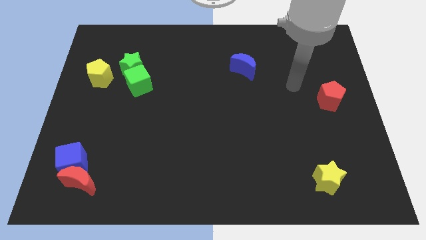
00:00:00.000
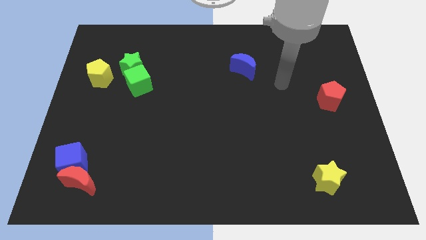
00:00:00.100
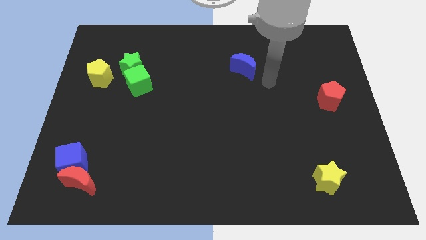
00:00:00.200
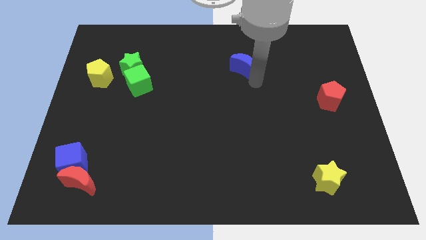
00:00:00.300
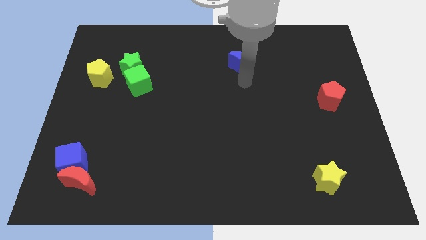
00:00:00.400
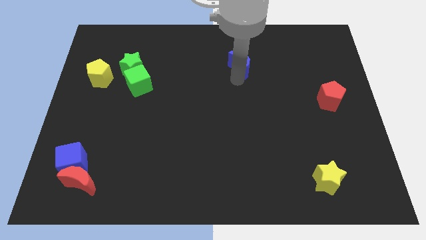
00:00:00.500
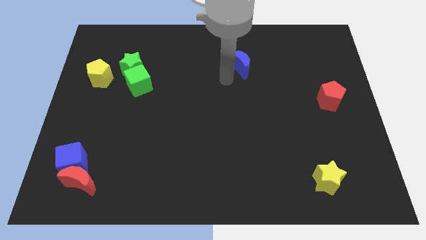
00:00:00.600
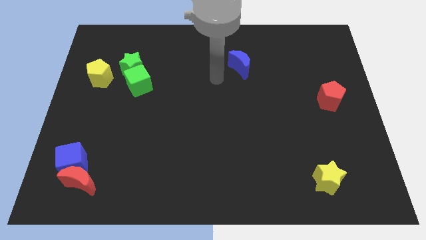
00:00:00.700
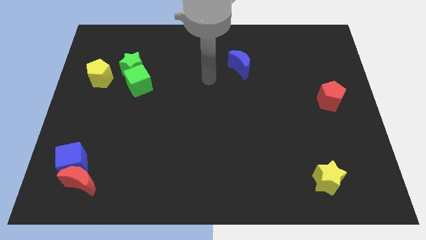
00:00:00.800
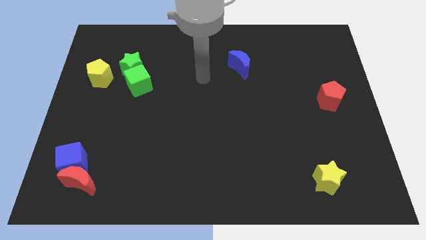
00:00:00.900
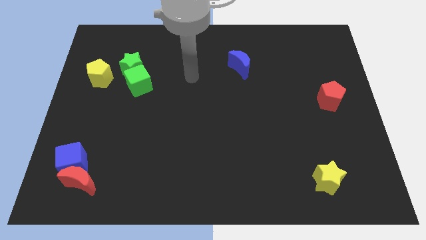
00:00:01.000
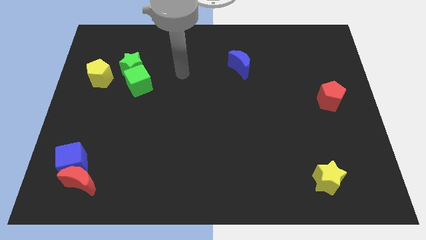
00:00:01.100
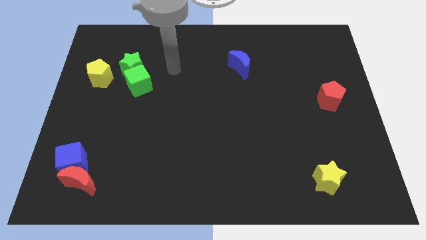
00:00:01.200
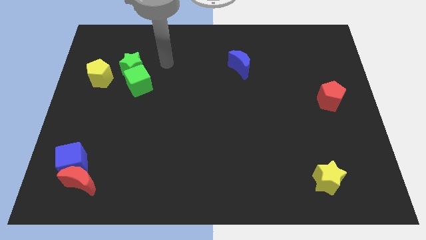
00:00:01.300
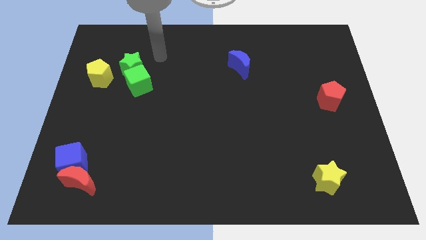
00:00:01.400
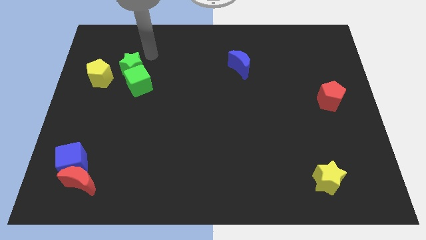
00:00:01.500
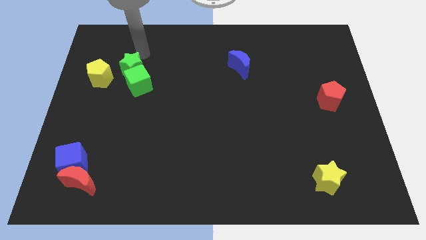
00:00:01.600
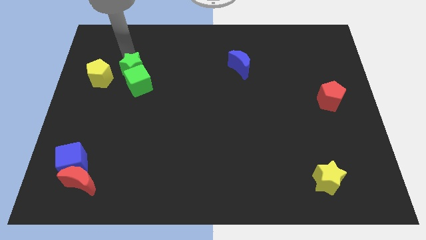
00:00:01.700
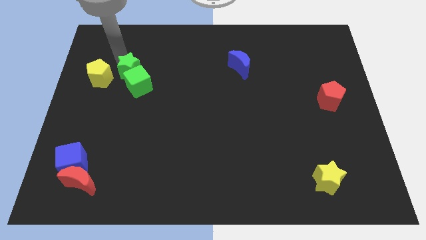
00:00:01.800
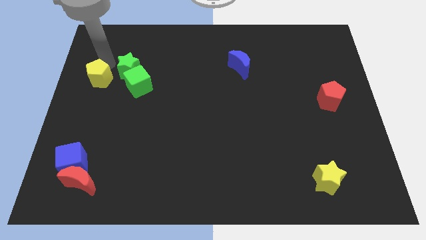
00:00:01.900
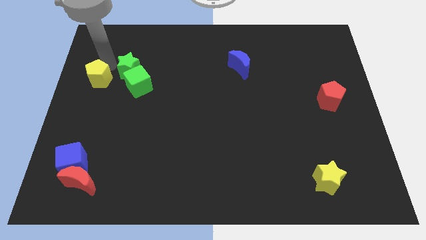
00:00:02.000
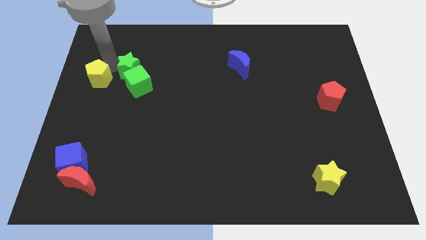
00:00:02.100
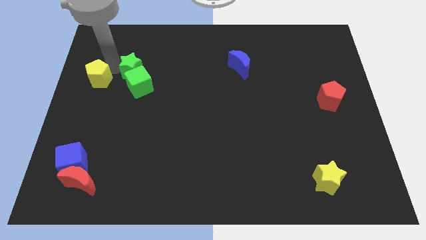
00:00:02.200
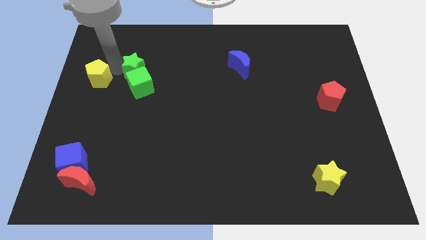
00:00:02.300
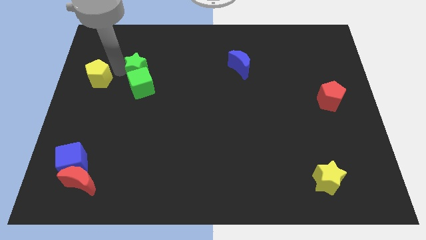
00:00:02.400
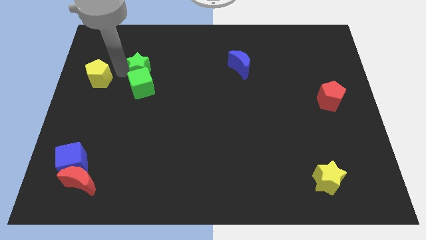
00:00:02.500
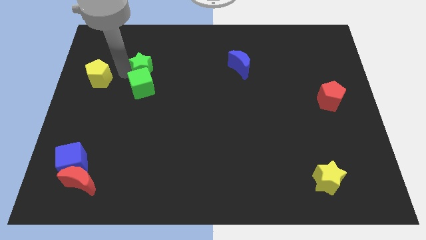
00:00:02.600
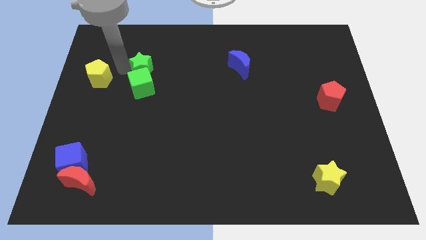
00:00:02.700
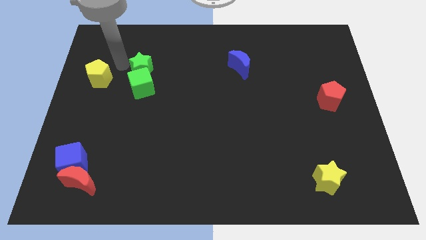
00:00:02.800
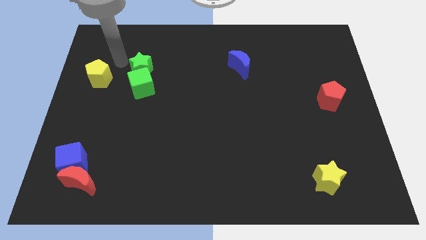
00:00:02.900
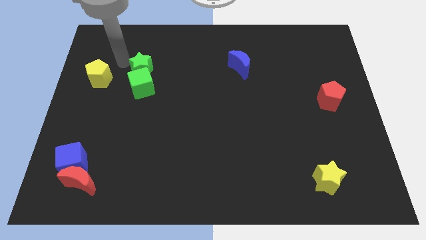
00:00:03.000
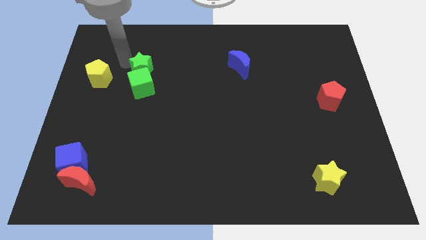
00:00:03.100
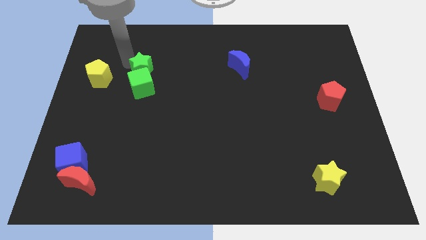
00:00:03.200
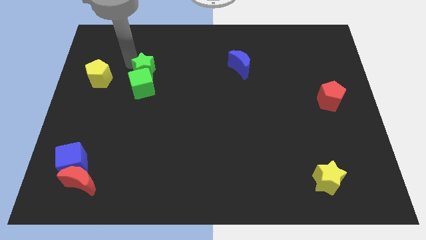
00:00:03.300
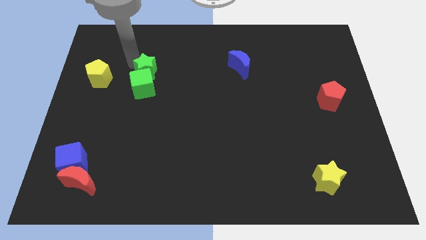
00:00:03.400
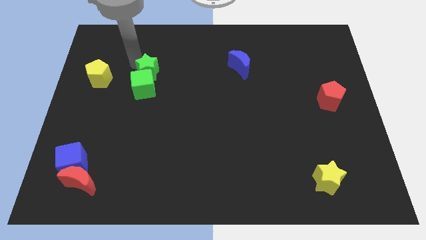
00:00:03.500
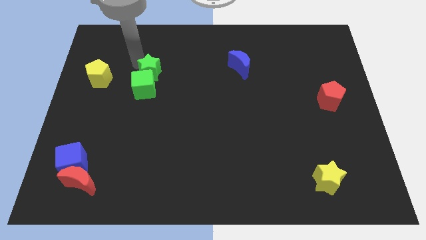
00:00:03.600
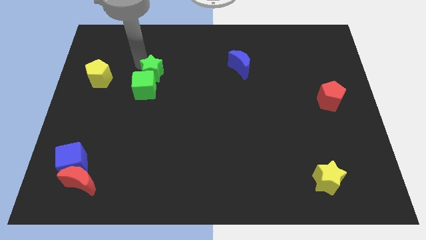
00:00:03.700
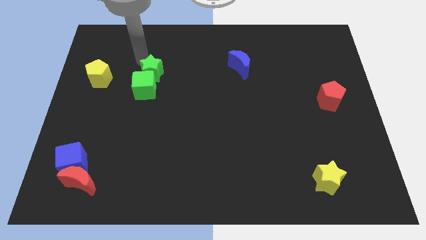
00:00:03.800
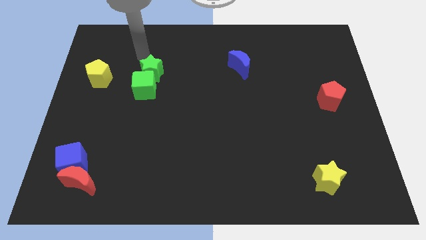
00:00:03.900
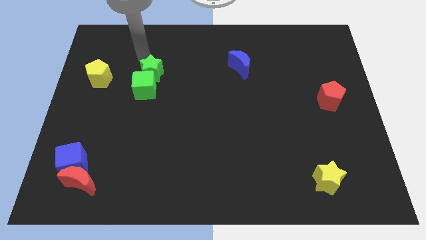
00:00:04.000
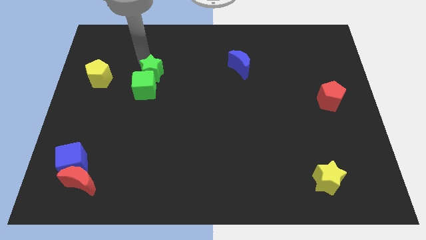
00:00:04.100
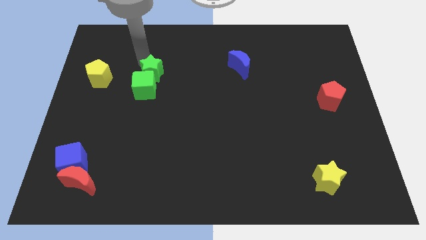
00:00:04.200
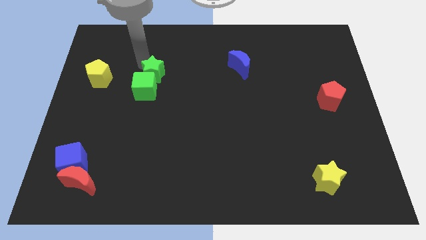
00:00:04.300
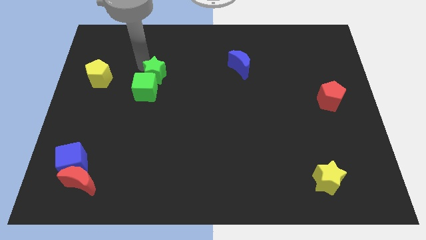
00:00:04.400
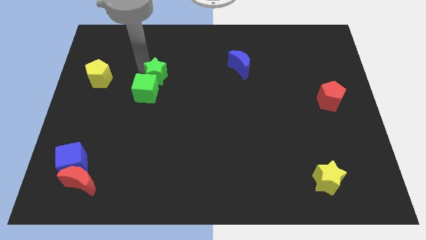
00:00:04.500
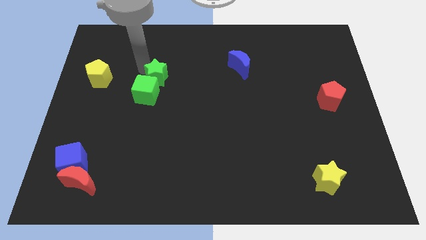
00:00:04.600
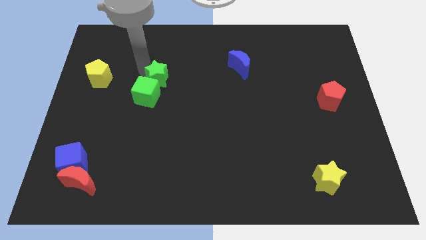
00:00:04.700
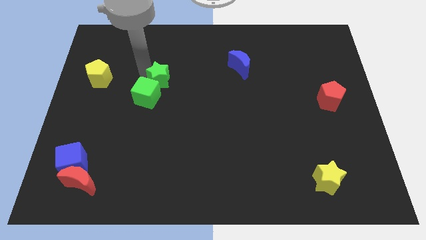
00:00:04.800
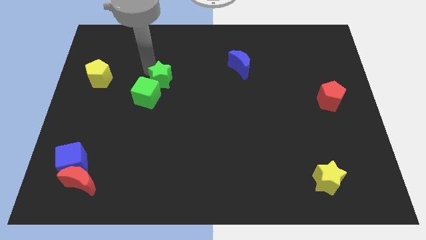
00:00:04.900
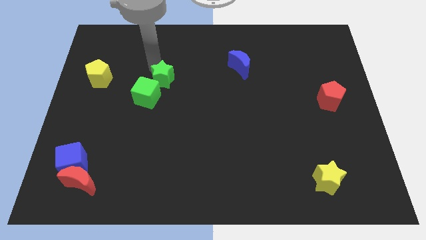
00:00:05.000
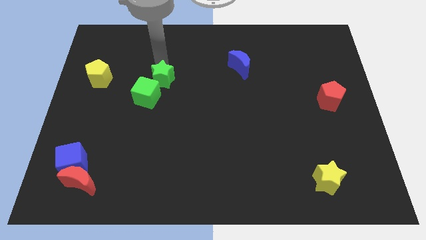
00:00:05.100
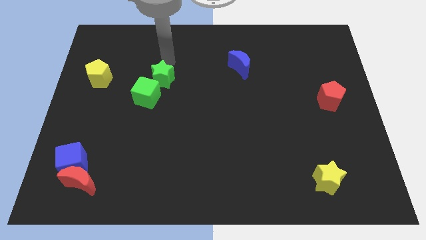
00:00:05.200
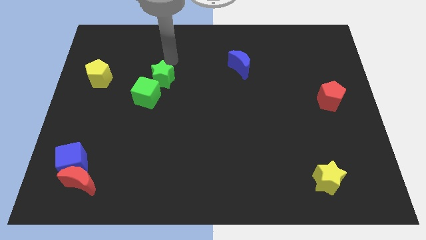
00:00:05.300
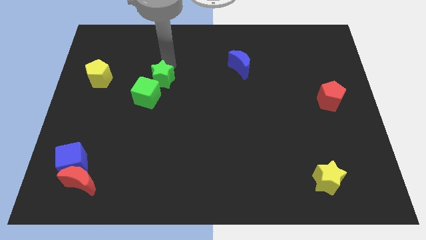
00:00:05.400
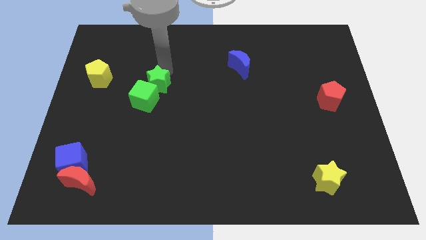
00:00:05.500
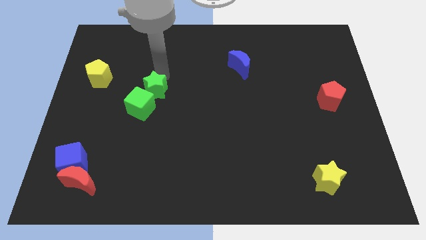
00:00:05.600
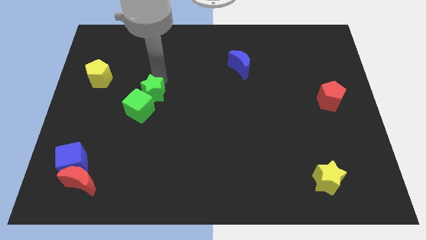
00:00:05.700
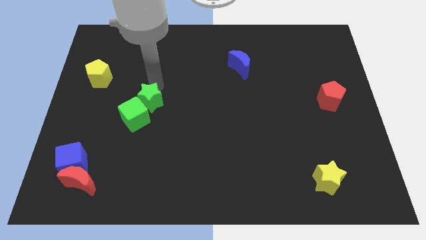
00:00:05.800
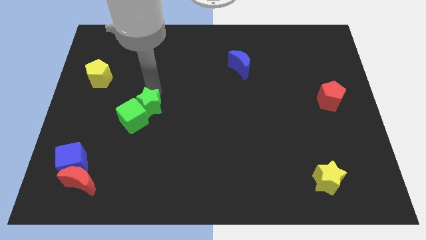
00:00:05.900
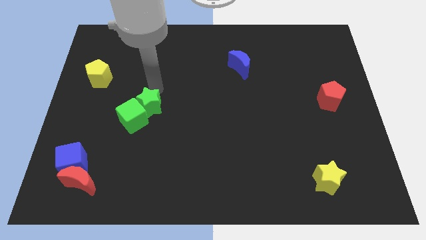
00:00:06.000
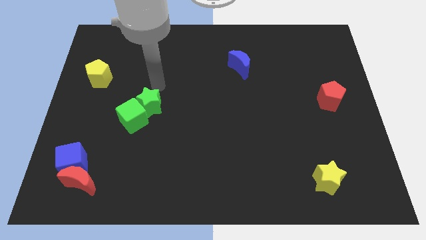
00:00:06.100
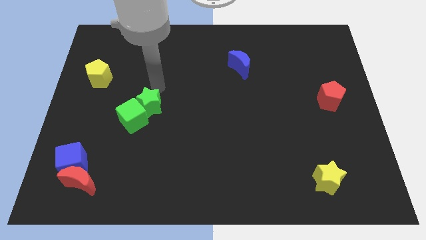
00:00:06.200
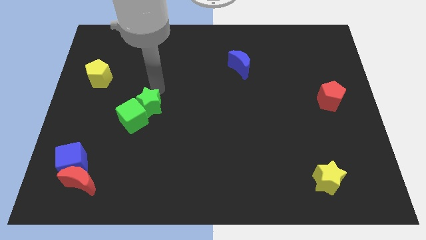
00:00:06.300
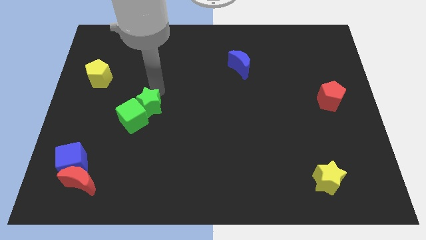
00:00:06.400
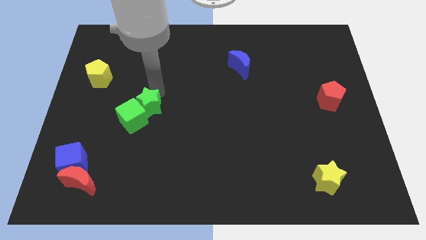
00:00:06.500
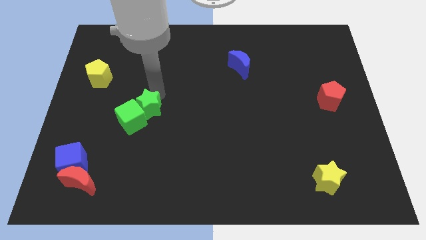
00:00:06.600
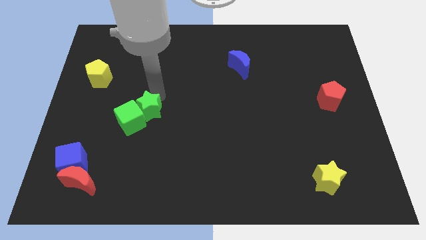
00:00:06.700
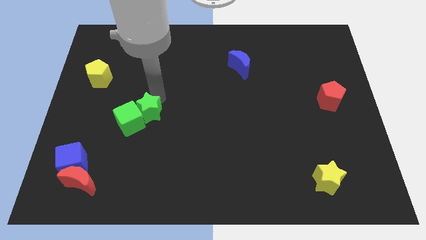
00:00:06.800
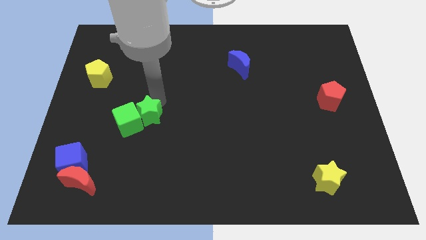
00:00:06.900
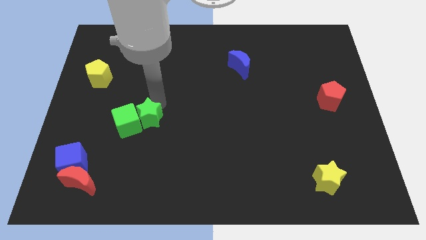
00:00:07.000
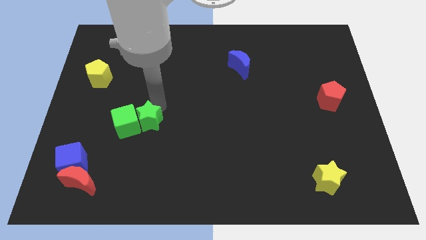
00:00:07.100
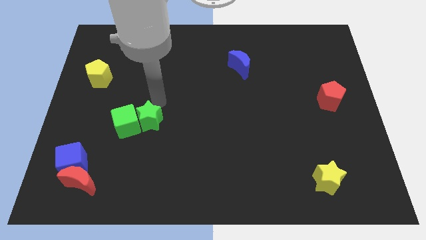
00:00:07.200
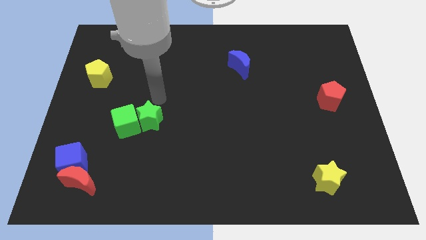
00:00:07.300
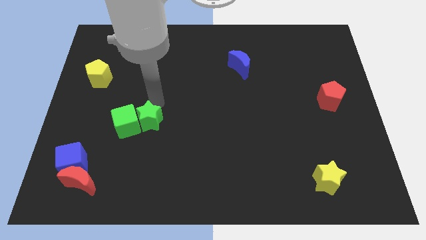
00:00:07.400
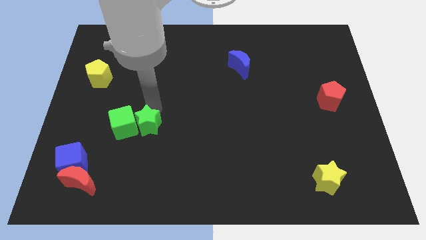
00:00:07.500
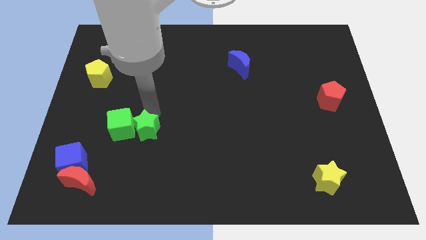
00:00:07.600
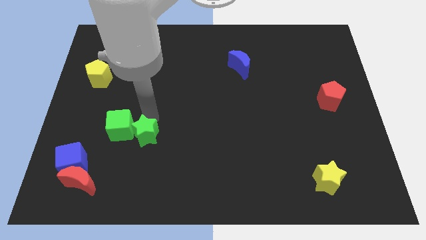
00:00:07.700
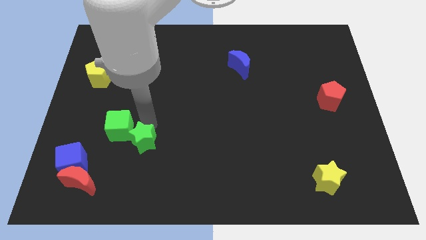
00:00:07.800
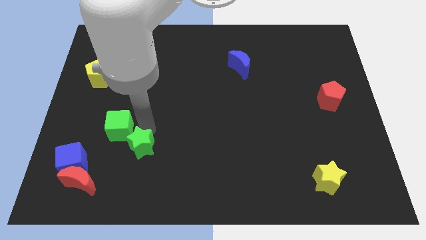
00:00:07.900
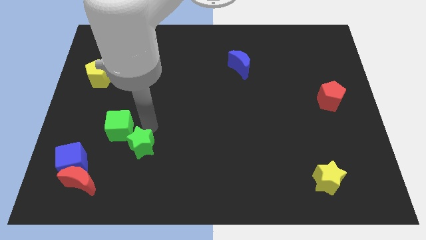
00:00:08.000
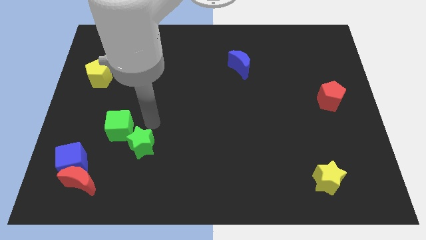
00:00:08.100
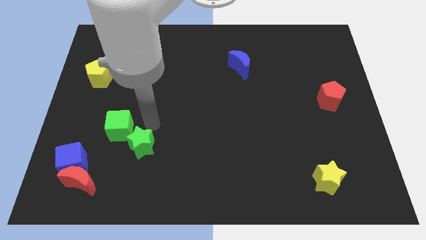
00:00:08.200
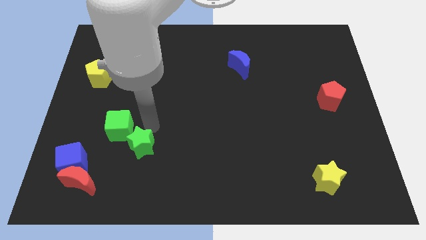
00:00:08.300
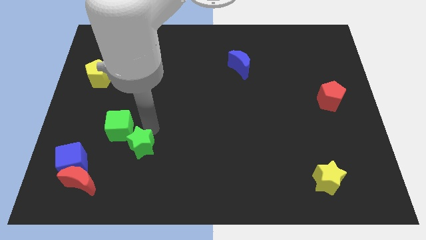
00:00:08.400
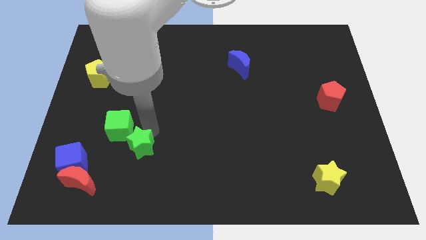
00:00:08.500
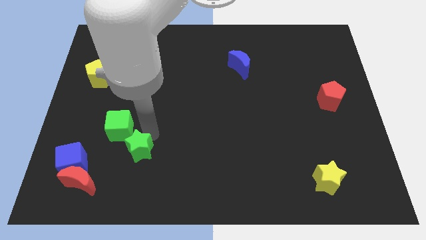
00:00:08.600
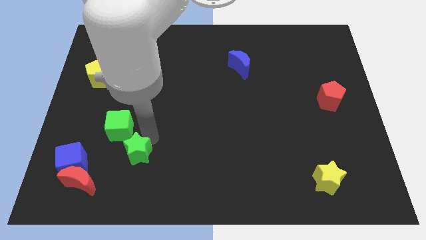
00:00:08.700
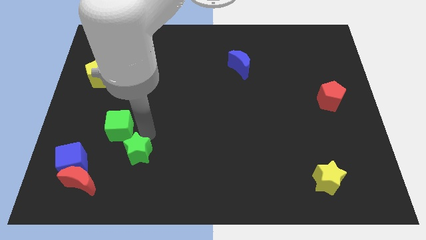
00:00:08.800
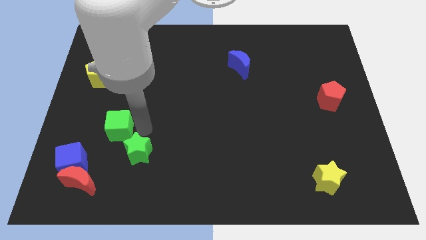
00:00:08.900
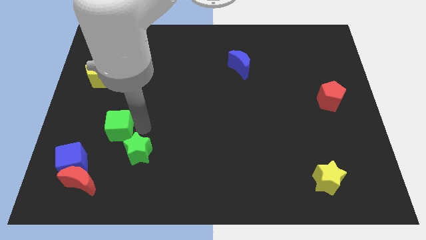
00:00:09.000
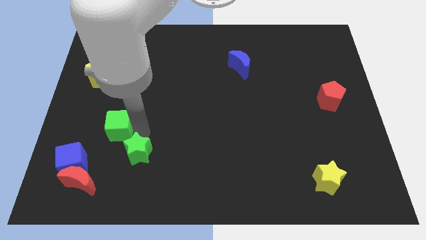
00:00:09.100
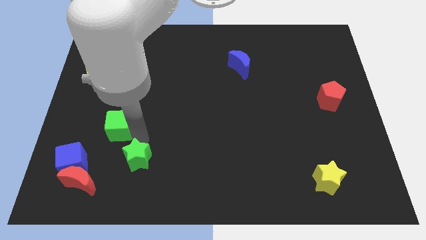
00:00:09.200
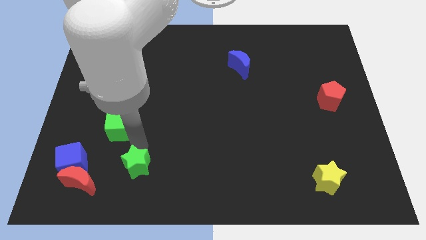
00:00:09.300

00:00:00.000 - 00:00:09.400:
push the green star just right of the red moon
